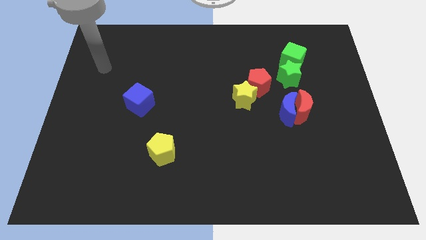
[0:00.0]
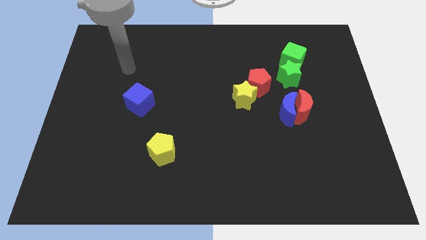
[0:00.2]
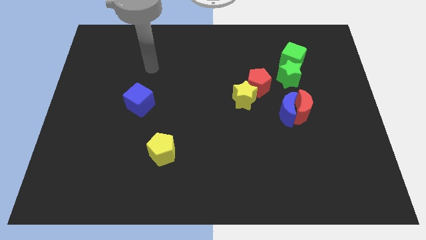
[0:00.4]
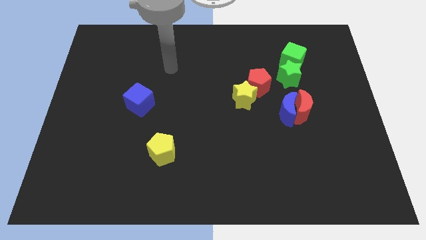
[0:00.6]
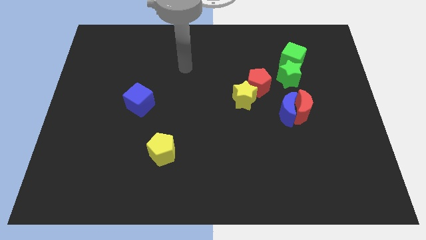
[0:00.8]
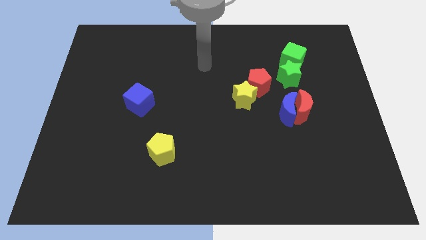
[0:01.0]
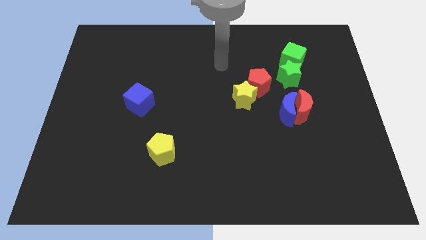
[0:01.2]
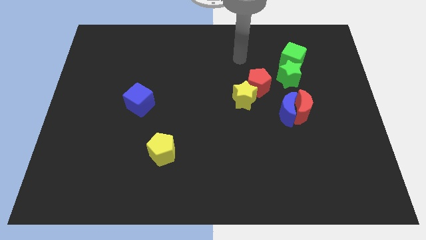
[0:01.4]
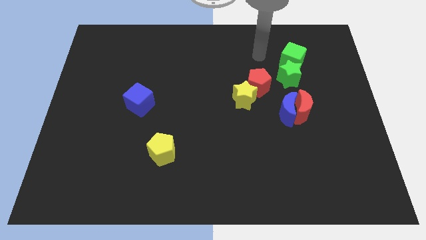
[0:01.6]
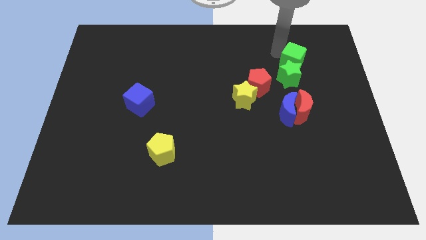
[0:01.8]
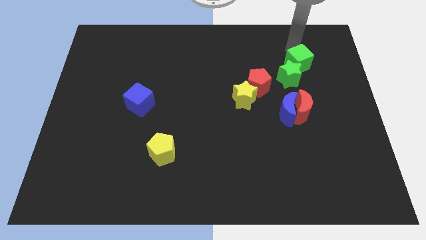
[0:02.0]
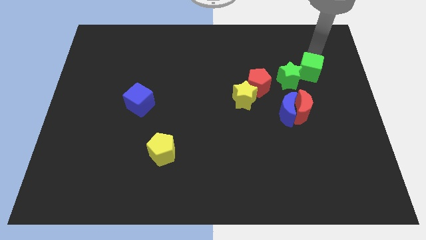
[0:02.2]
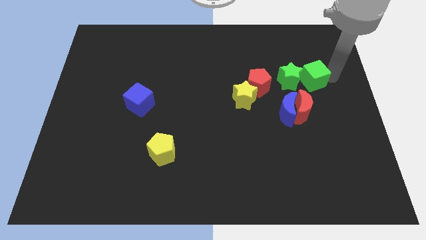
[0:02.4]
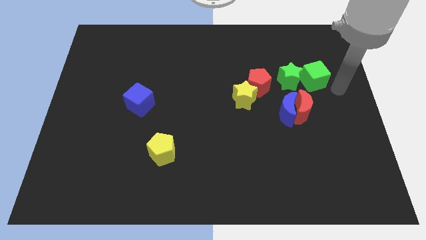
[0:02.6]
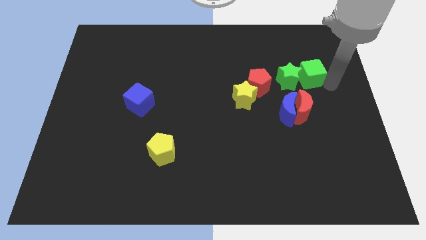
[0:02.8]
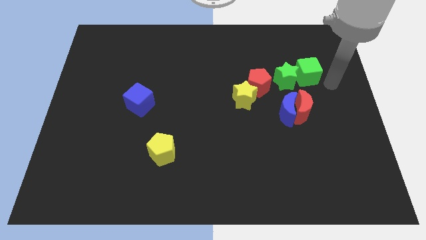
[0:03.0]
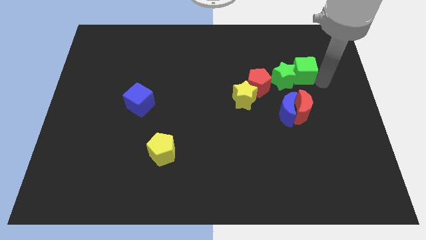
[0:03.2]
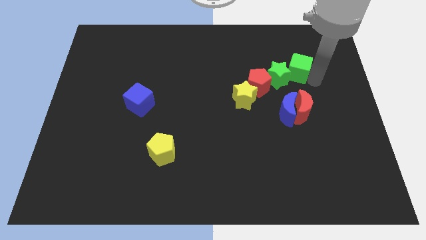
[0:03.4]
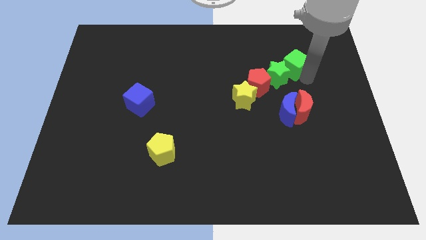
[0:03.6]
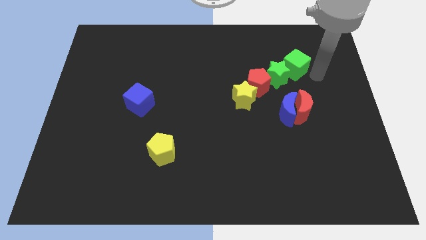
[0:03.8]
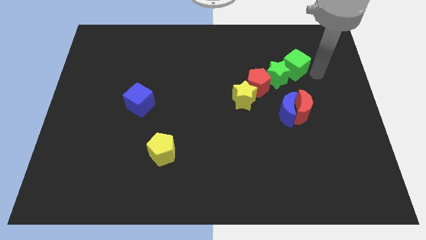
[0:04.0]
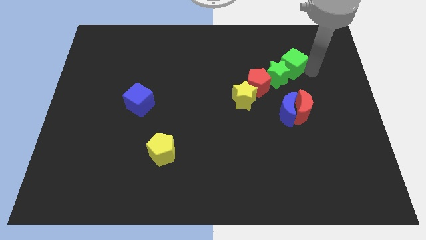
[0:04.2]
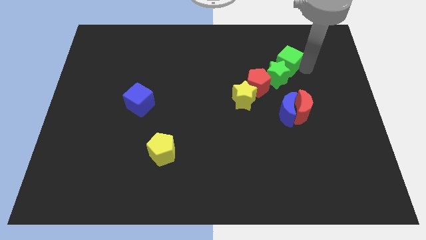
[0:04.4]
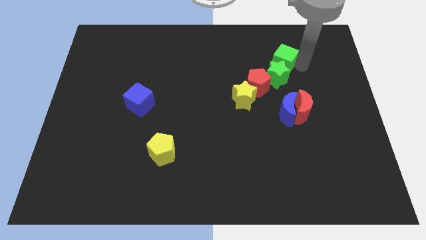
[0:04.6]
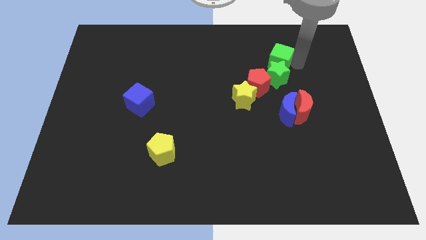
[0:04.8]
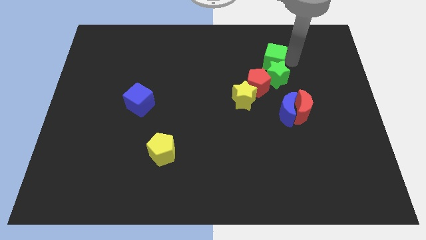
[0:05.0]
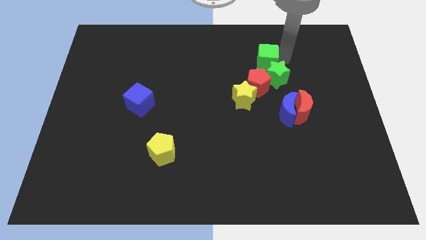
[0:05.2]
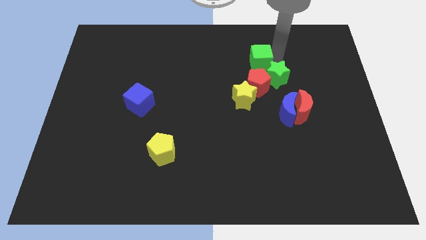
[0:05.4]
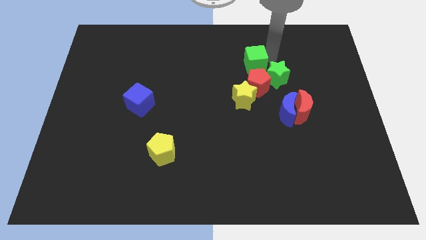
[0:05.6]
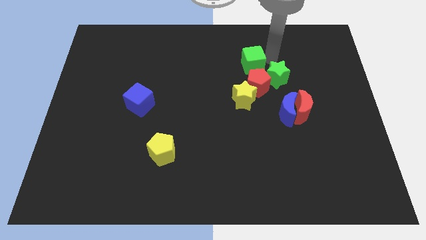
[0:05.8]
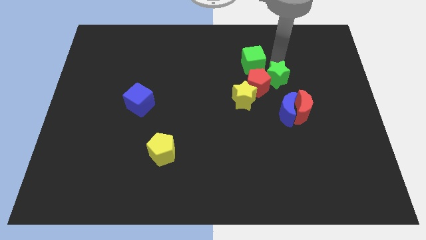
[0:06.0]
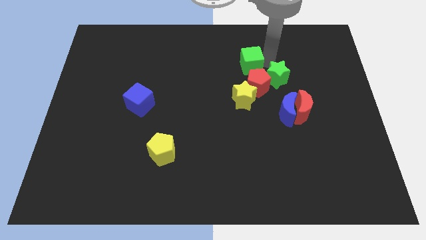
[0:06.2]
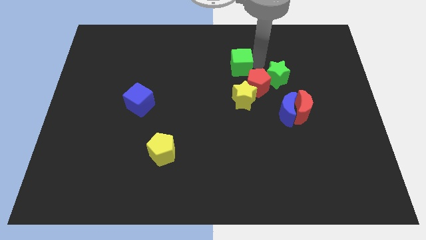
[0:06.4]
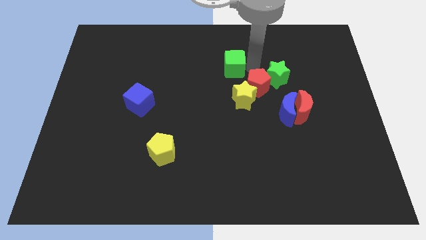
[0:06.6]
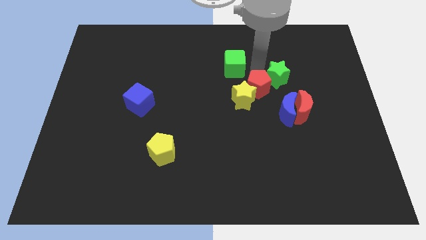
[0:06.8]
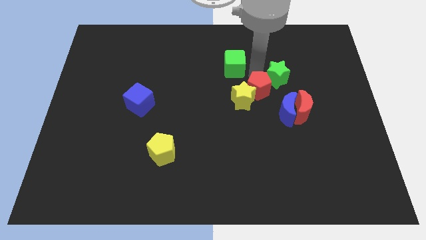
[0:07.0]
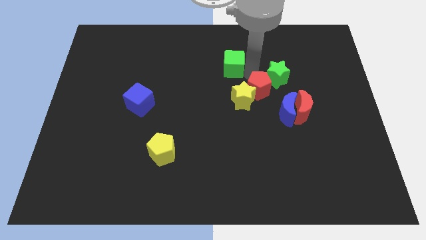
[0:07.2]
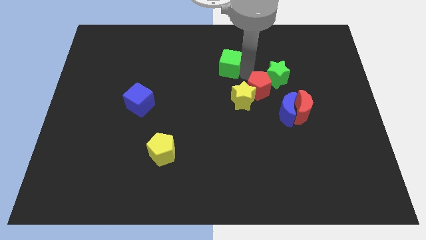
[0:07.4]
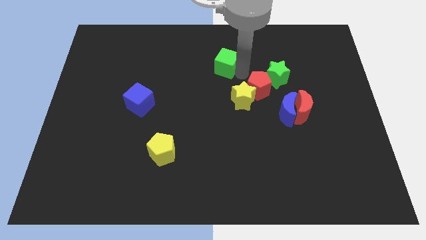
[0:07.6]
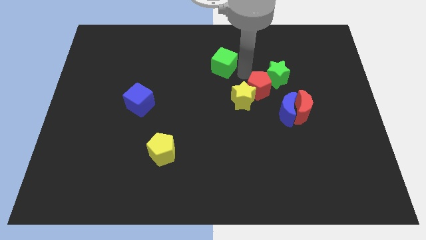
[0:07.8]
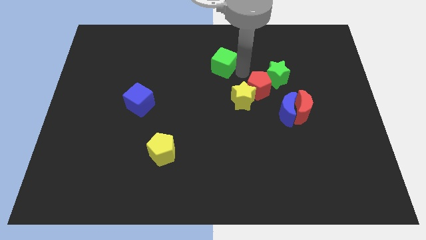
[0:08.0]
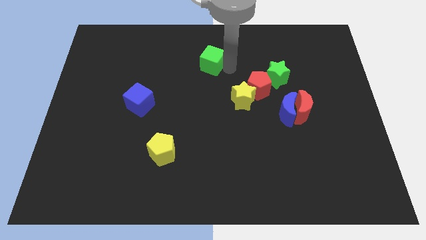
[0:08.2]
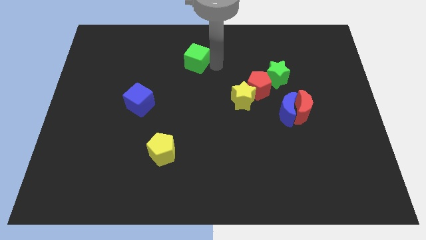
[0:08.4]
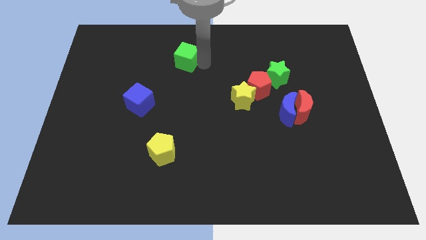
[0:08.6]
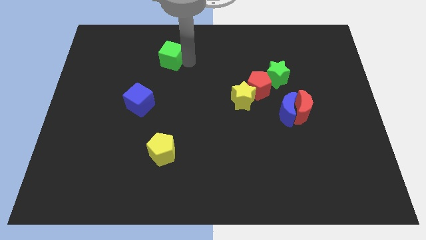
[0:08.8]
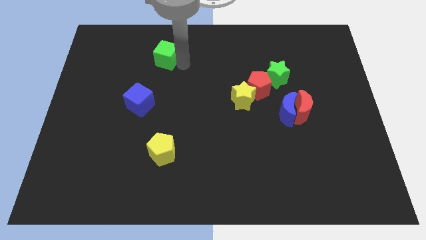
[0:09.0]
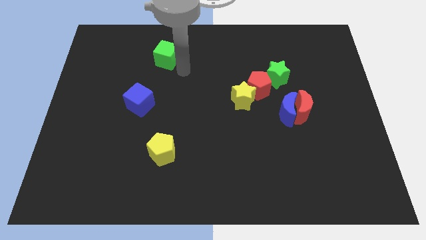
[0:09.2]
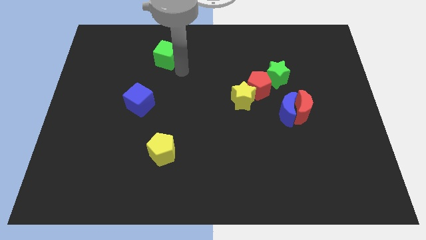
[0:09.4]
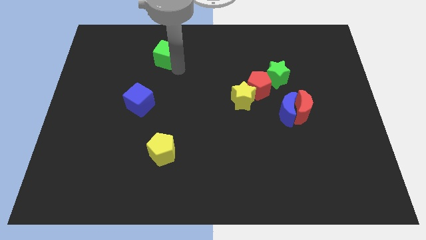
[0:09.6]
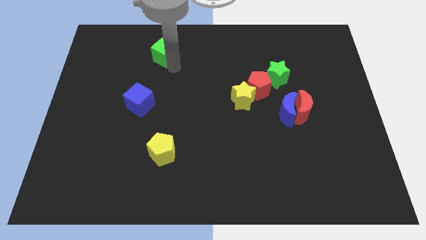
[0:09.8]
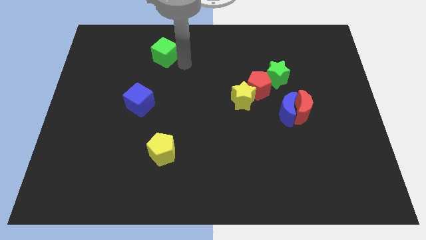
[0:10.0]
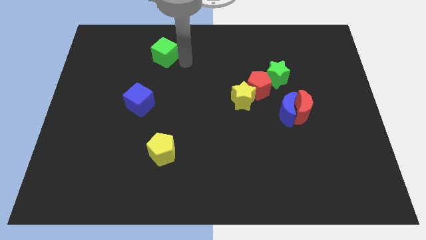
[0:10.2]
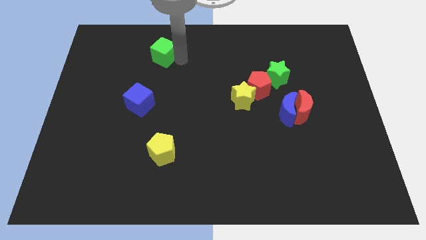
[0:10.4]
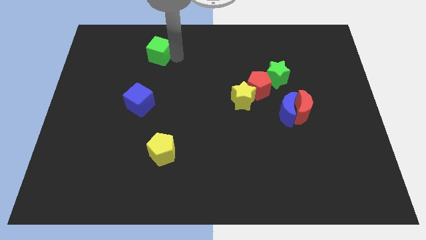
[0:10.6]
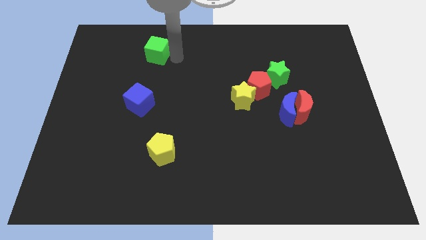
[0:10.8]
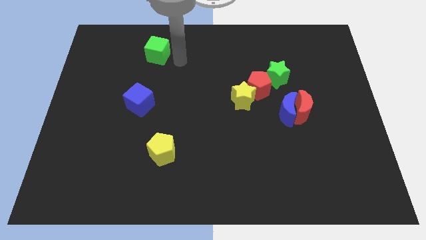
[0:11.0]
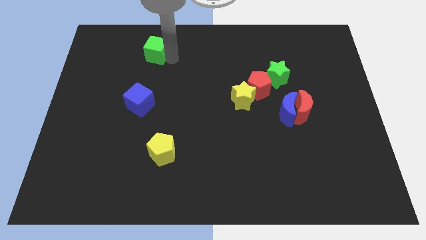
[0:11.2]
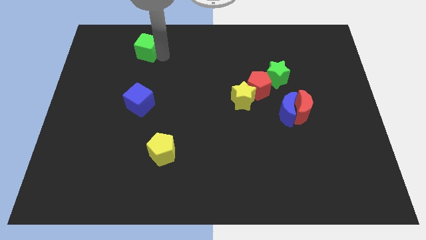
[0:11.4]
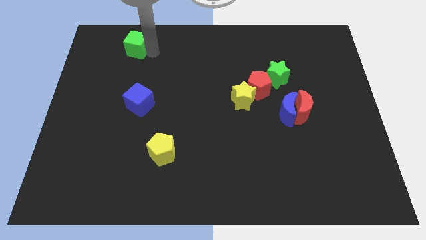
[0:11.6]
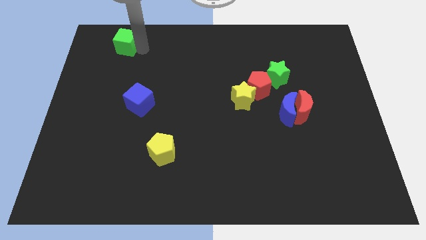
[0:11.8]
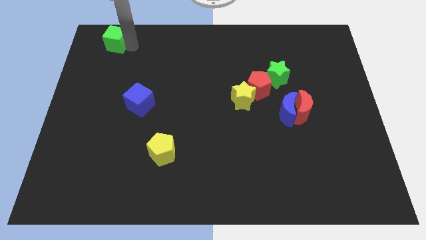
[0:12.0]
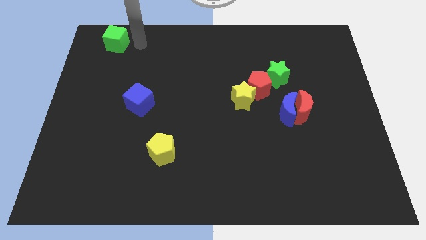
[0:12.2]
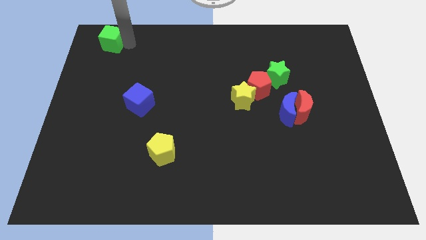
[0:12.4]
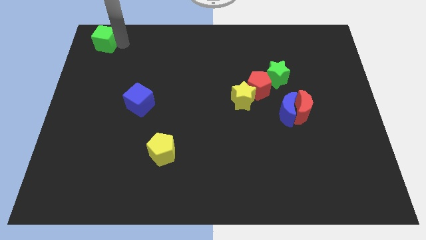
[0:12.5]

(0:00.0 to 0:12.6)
put the green cube to the top left of the board

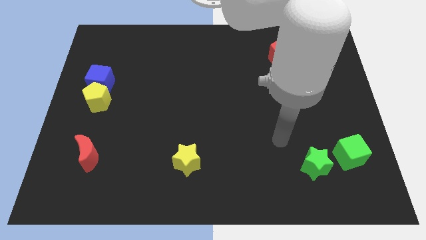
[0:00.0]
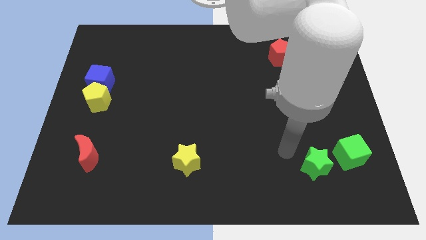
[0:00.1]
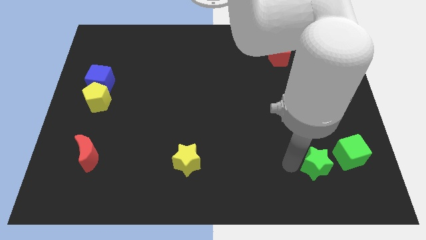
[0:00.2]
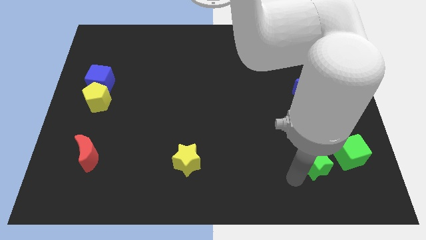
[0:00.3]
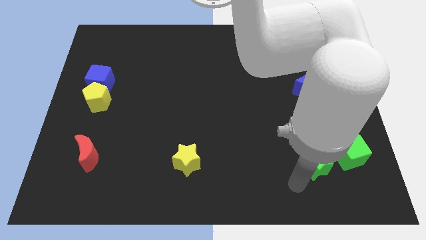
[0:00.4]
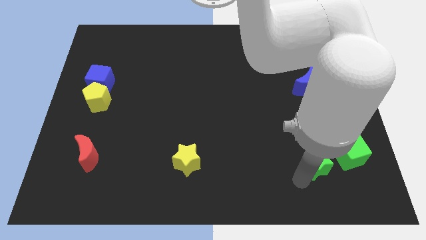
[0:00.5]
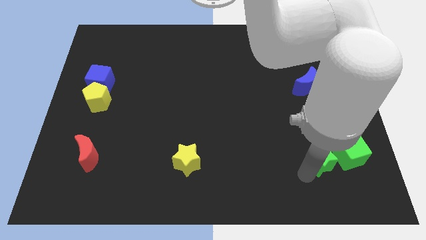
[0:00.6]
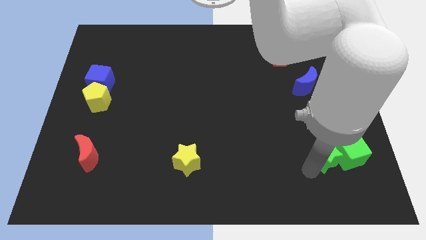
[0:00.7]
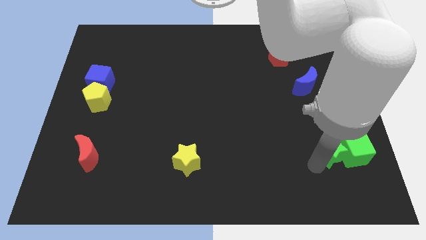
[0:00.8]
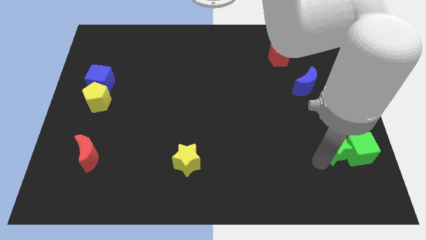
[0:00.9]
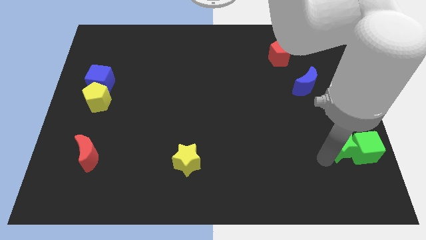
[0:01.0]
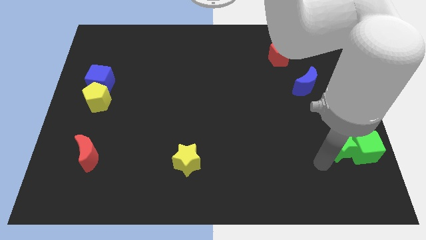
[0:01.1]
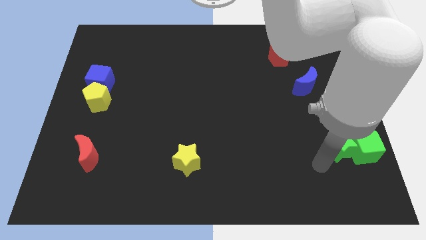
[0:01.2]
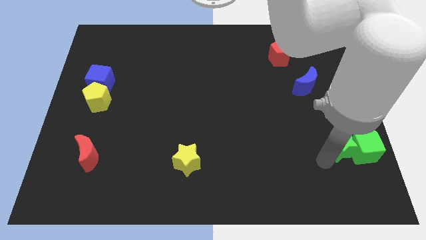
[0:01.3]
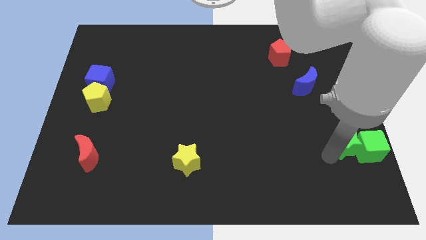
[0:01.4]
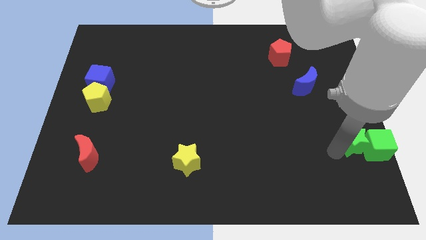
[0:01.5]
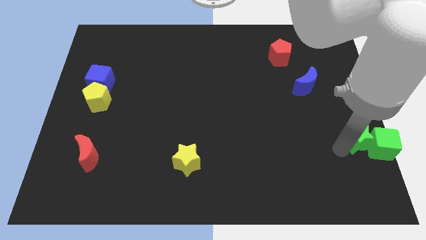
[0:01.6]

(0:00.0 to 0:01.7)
slide the green star to the right side of the board
